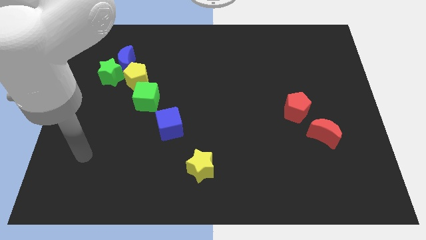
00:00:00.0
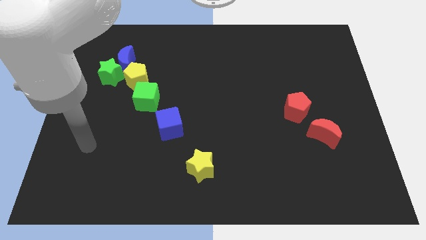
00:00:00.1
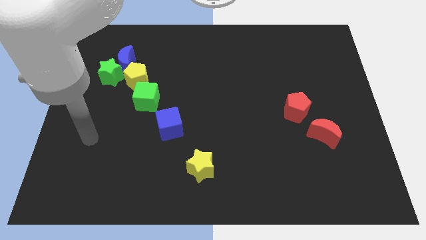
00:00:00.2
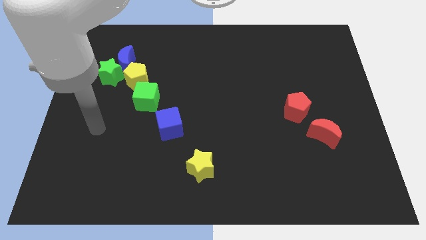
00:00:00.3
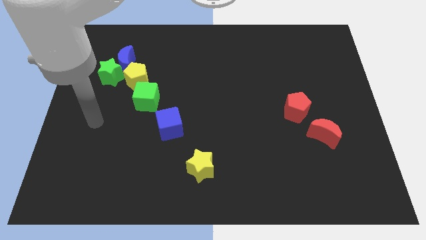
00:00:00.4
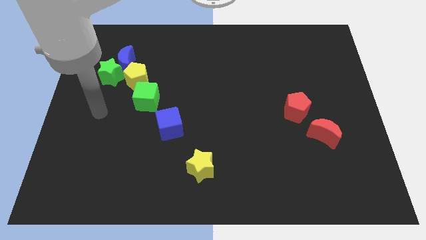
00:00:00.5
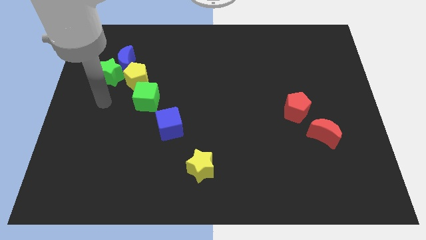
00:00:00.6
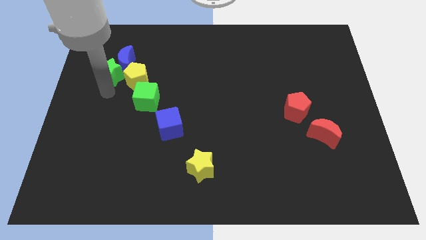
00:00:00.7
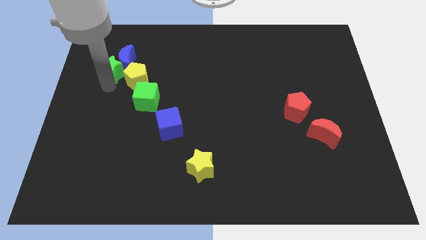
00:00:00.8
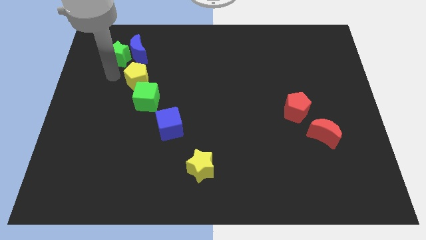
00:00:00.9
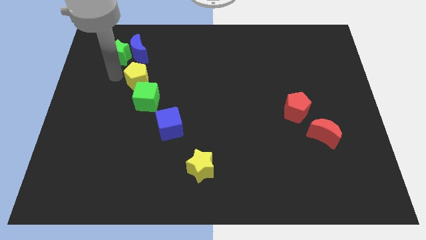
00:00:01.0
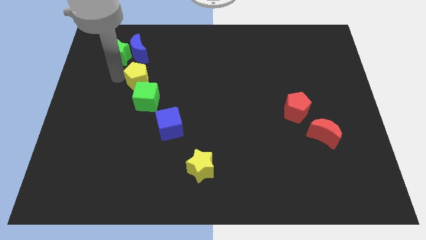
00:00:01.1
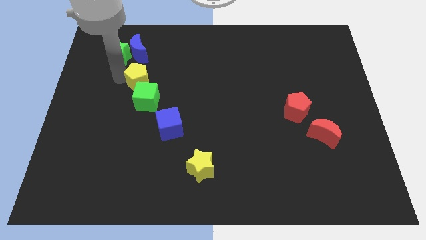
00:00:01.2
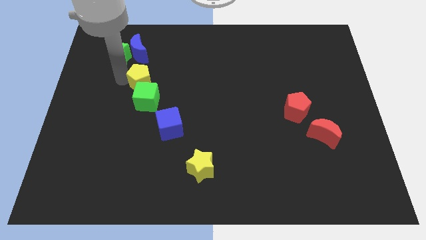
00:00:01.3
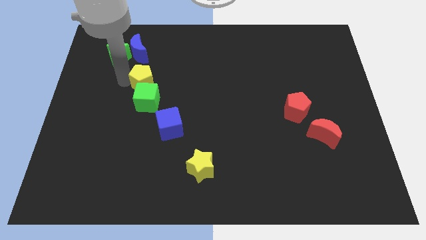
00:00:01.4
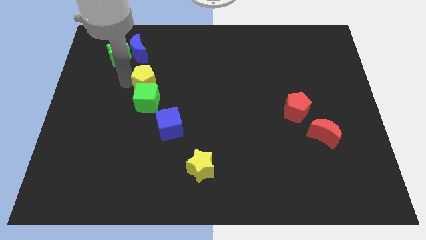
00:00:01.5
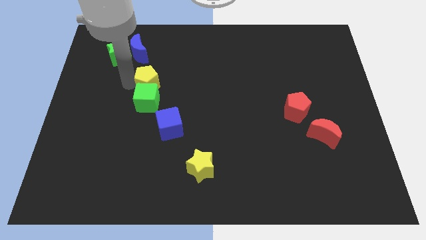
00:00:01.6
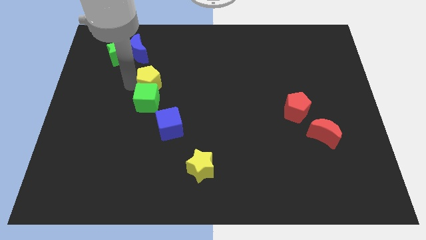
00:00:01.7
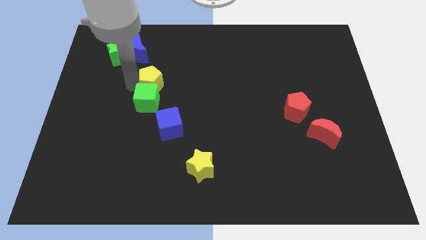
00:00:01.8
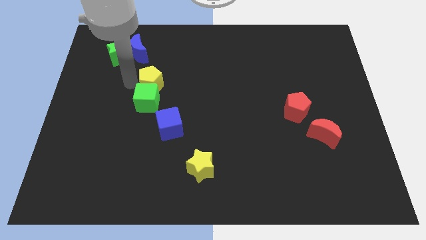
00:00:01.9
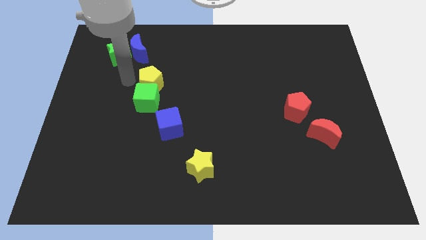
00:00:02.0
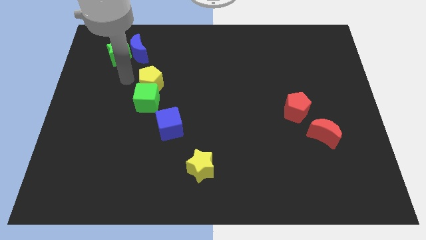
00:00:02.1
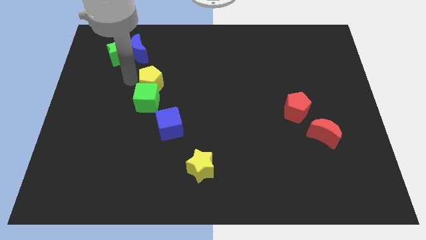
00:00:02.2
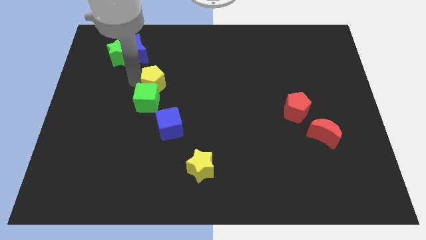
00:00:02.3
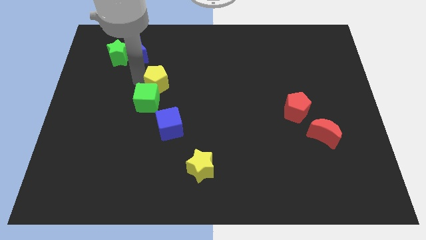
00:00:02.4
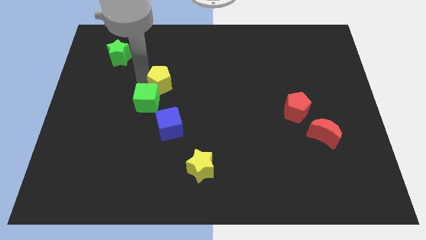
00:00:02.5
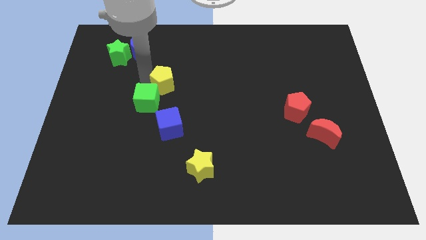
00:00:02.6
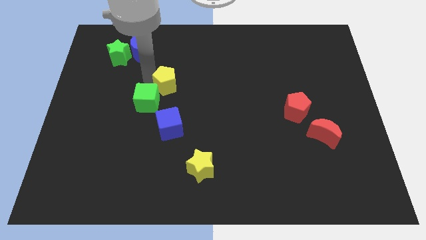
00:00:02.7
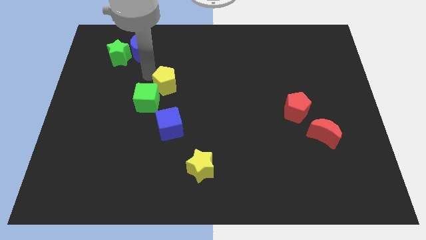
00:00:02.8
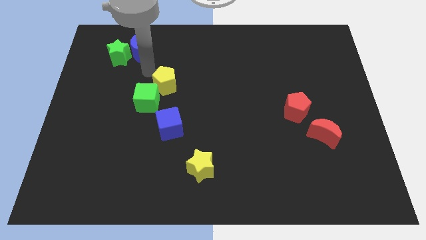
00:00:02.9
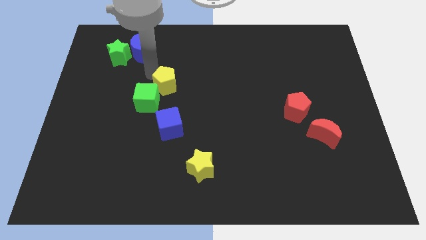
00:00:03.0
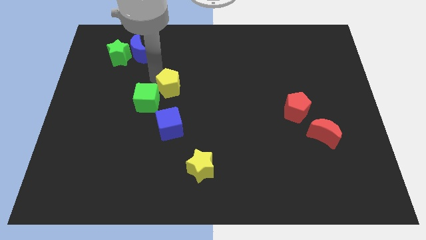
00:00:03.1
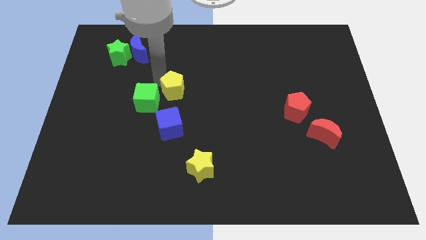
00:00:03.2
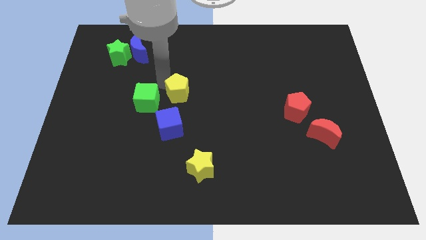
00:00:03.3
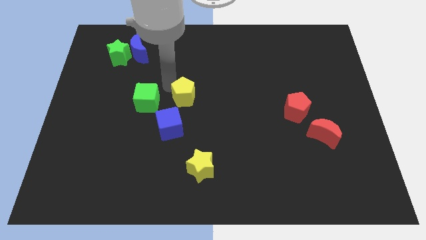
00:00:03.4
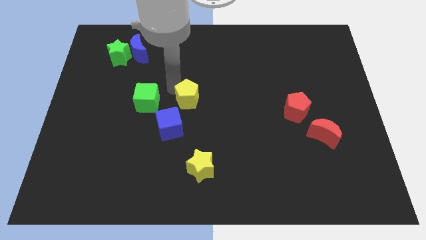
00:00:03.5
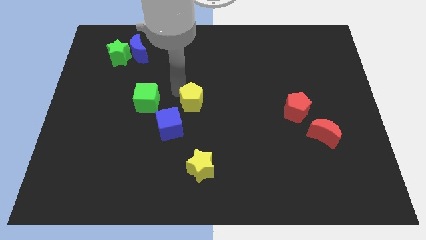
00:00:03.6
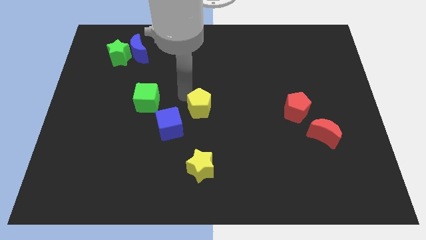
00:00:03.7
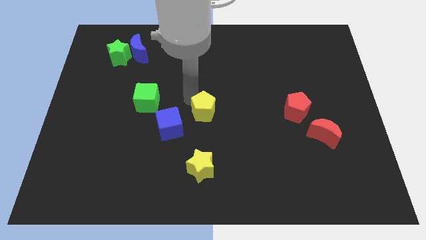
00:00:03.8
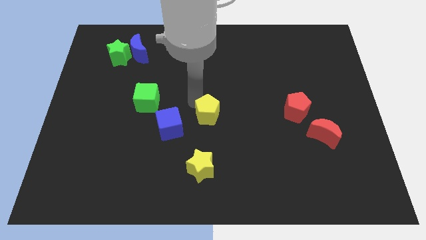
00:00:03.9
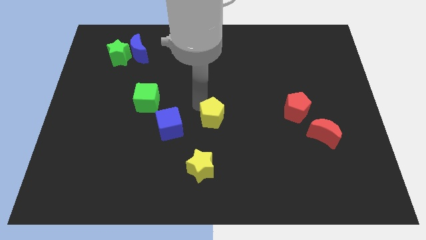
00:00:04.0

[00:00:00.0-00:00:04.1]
push the yellow pentagon downwards and then right

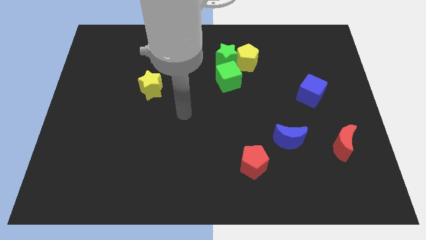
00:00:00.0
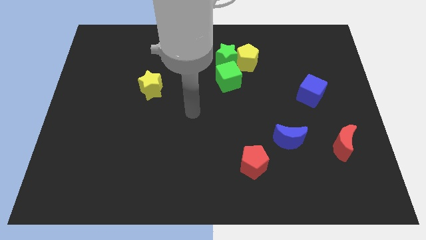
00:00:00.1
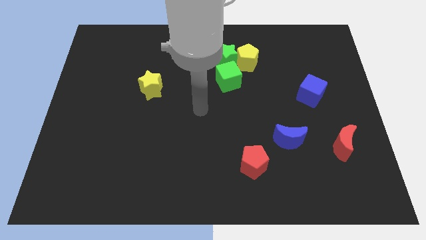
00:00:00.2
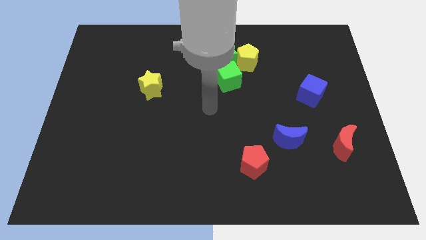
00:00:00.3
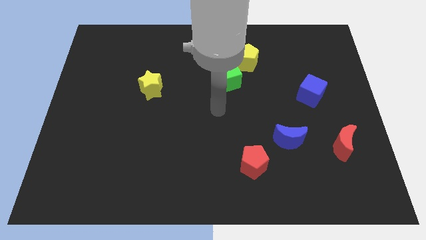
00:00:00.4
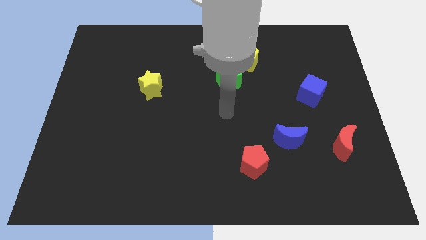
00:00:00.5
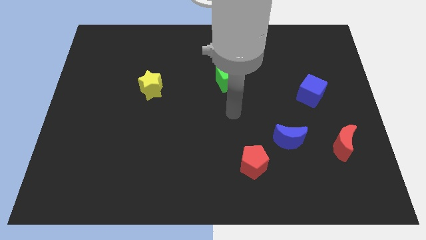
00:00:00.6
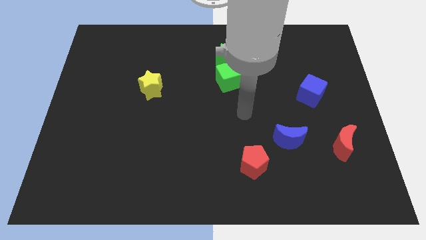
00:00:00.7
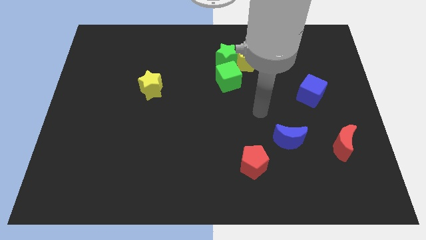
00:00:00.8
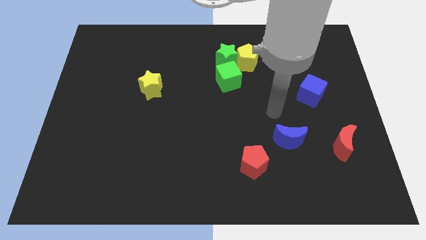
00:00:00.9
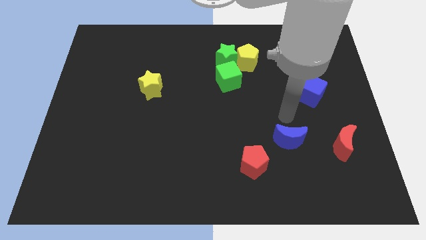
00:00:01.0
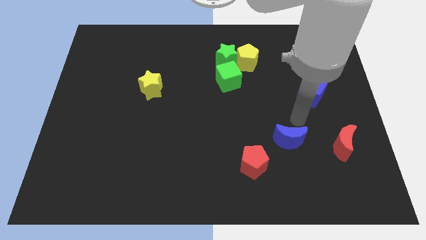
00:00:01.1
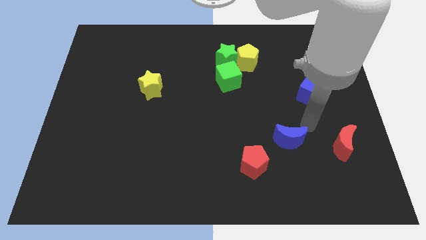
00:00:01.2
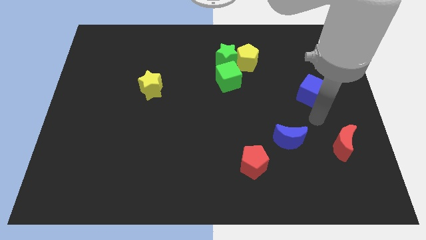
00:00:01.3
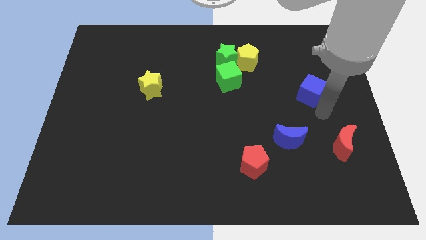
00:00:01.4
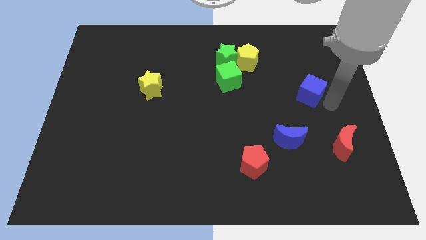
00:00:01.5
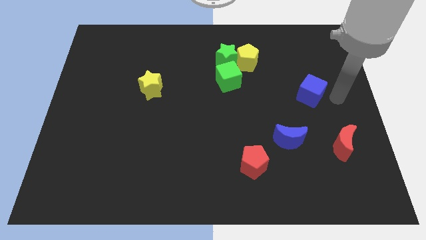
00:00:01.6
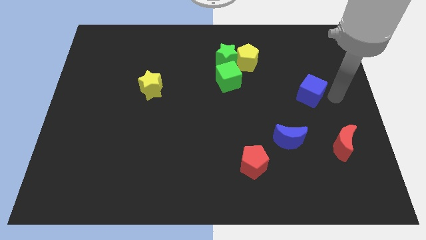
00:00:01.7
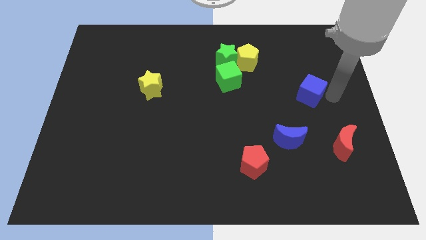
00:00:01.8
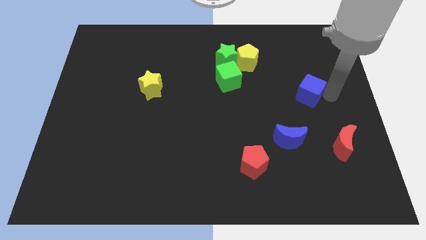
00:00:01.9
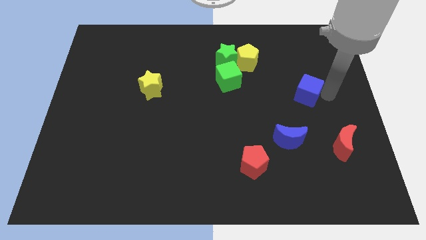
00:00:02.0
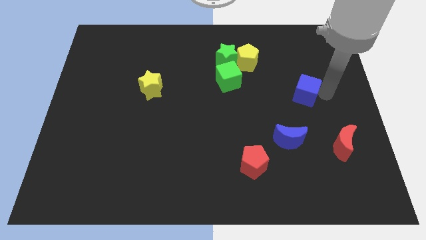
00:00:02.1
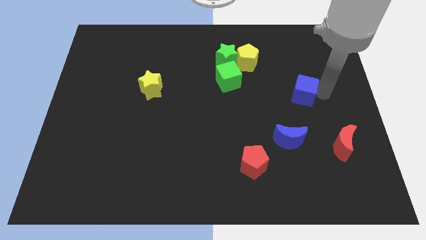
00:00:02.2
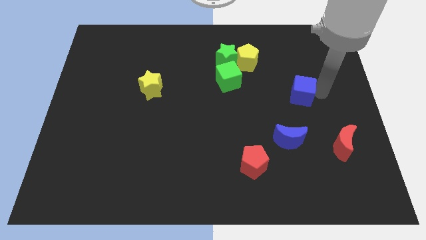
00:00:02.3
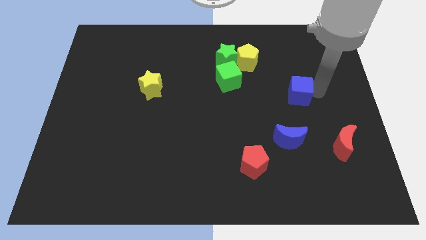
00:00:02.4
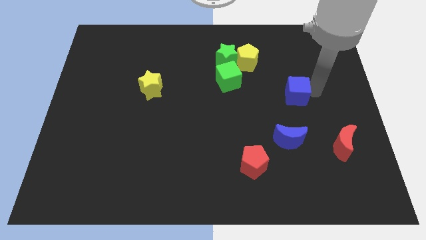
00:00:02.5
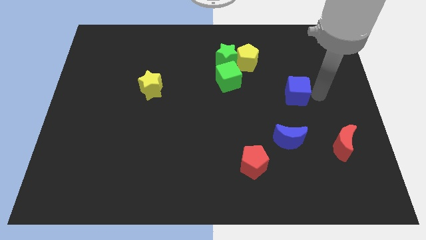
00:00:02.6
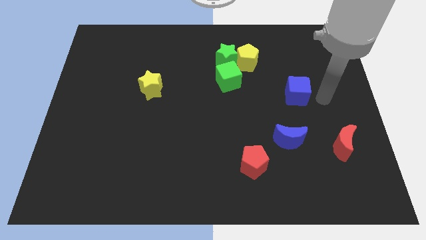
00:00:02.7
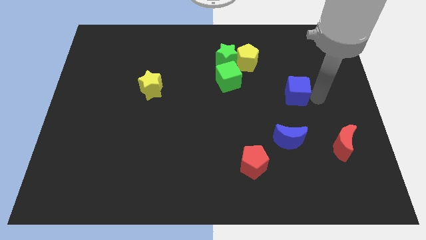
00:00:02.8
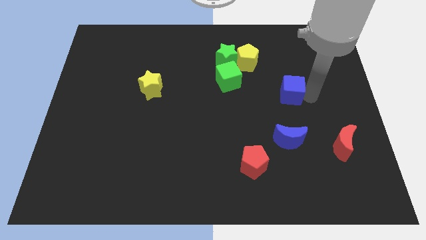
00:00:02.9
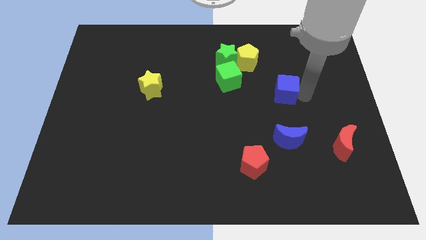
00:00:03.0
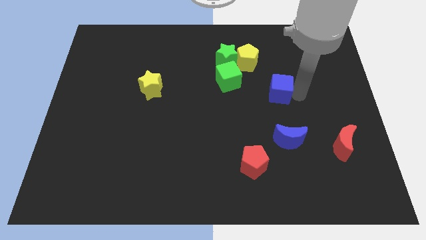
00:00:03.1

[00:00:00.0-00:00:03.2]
push the blue cube left a bit

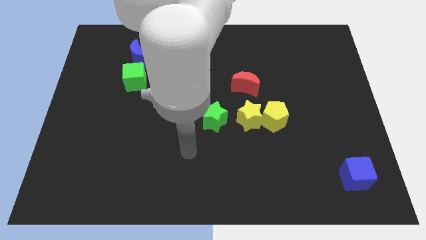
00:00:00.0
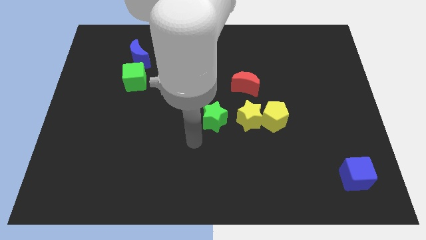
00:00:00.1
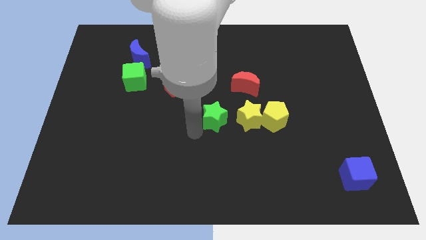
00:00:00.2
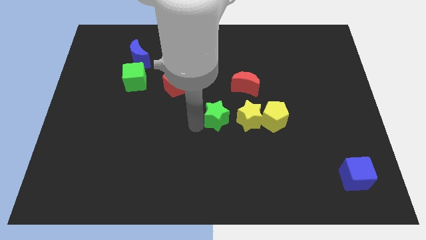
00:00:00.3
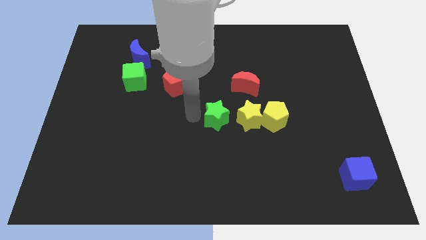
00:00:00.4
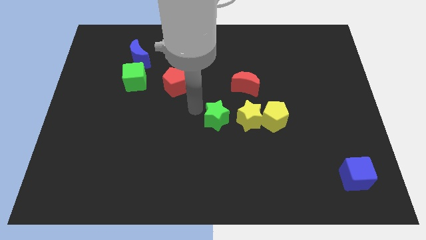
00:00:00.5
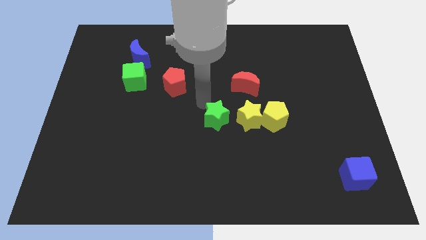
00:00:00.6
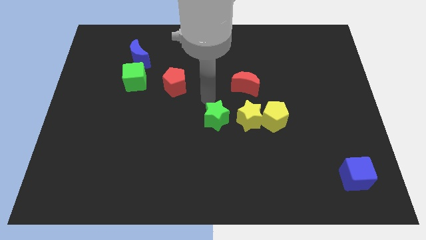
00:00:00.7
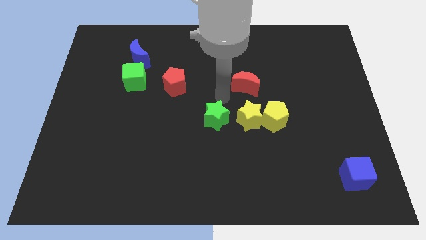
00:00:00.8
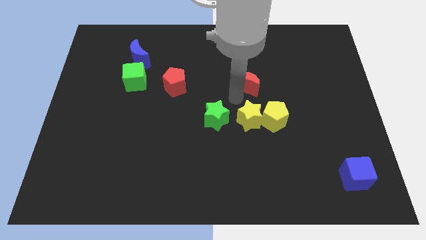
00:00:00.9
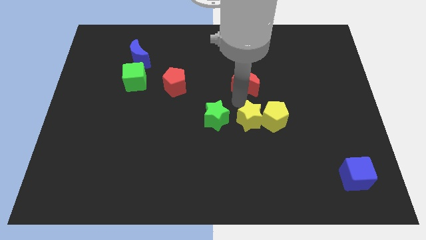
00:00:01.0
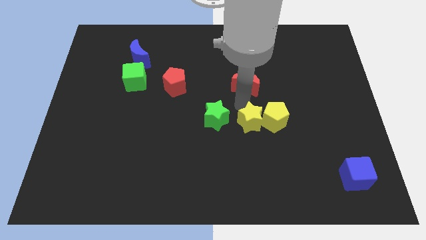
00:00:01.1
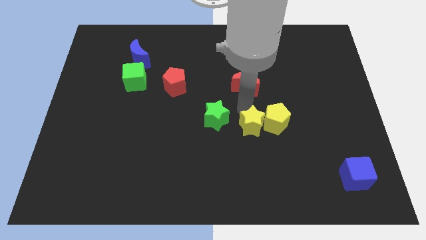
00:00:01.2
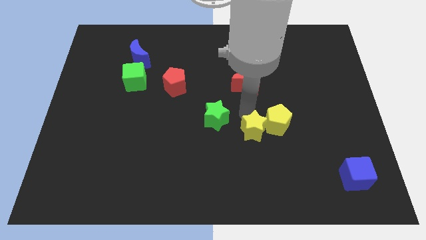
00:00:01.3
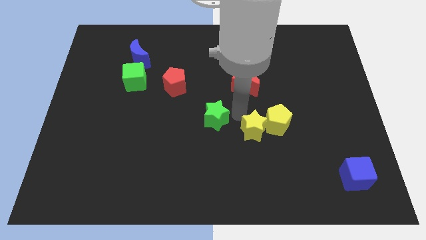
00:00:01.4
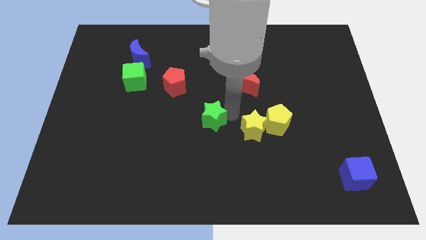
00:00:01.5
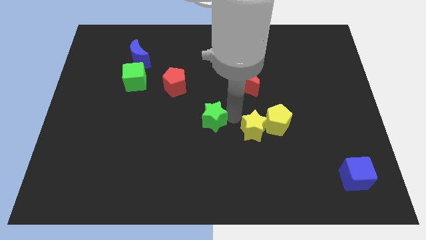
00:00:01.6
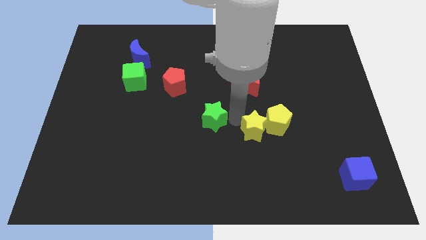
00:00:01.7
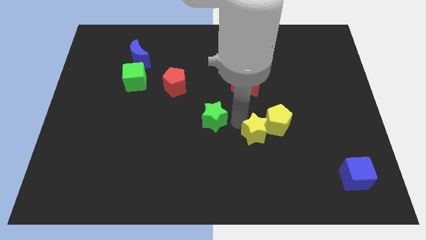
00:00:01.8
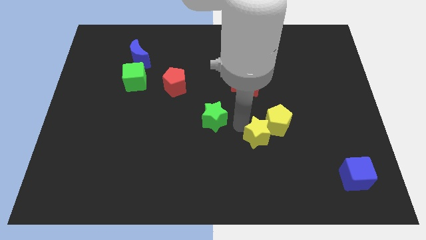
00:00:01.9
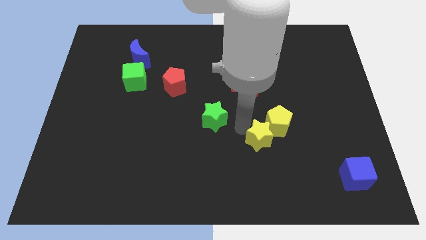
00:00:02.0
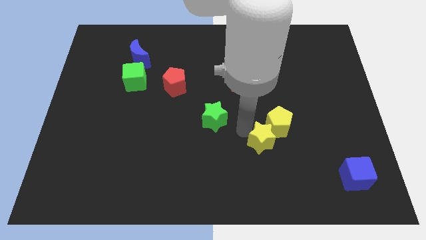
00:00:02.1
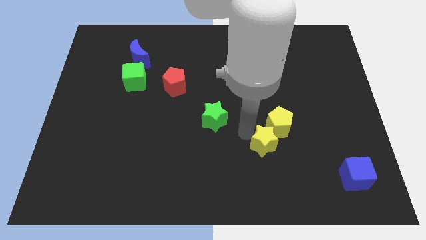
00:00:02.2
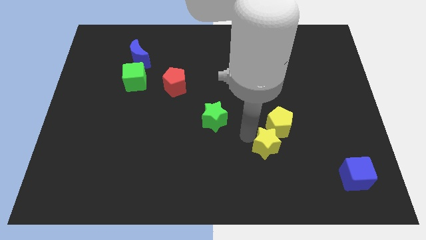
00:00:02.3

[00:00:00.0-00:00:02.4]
push the yellow star downwards and to the right somewhat
